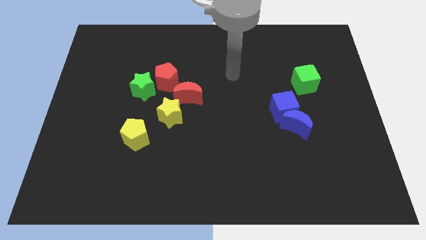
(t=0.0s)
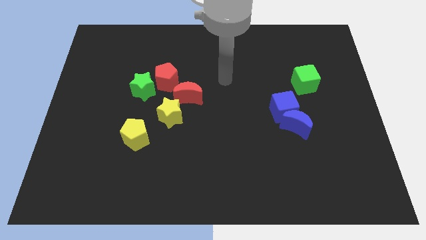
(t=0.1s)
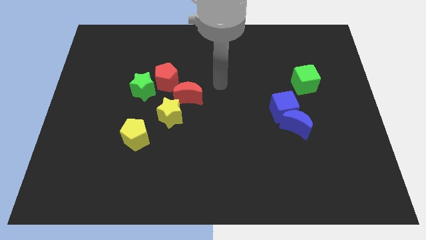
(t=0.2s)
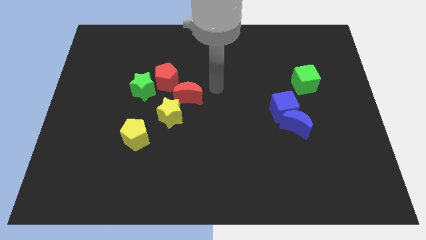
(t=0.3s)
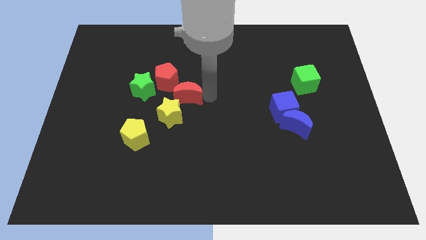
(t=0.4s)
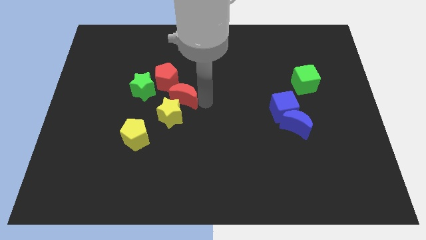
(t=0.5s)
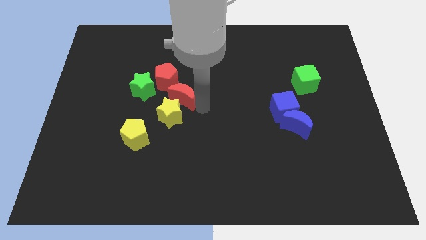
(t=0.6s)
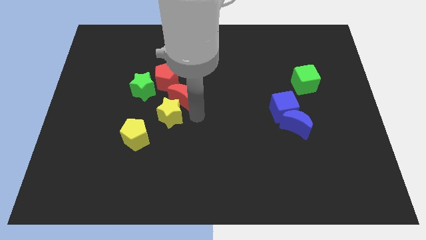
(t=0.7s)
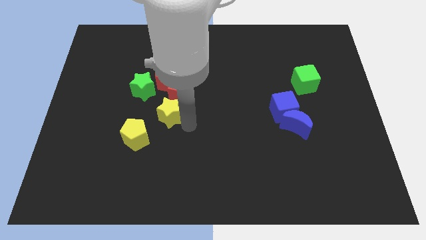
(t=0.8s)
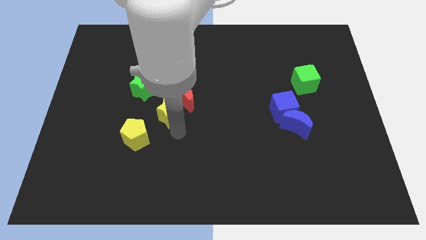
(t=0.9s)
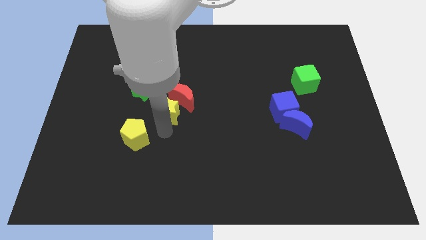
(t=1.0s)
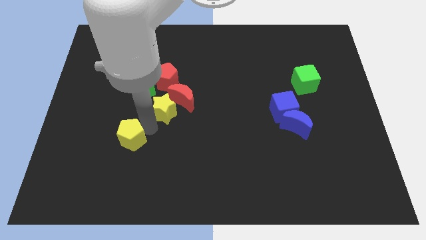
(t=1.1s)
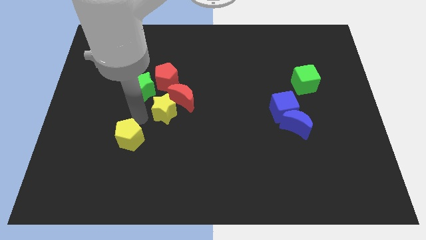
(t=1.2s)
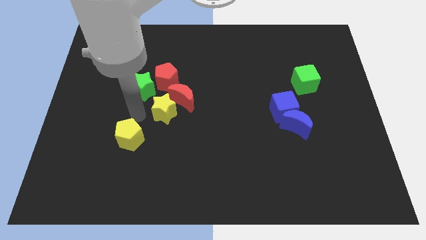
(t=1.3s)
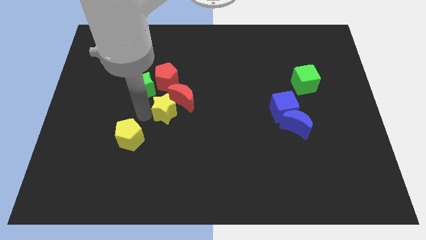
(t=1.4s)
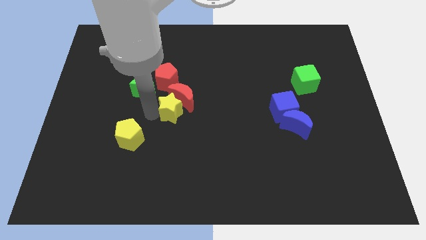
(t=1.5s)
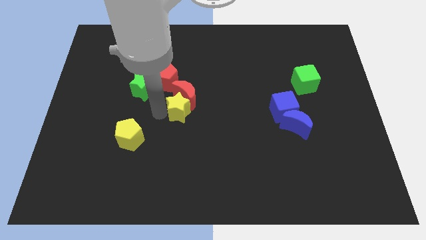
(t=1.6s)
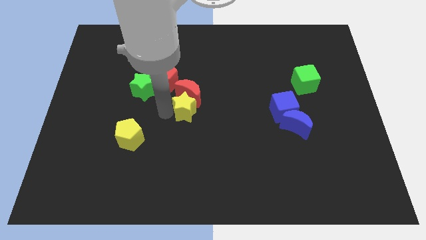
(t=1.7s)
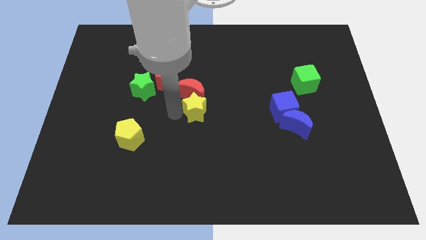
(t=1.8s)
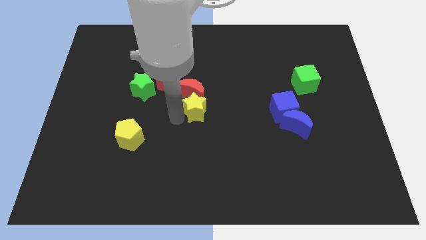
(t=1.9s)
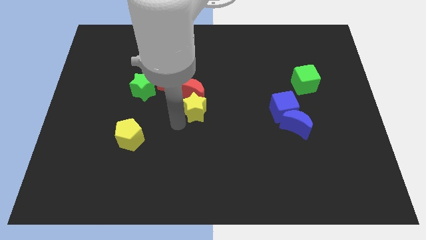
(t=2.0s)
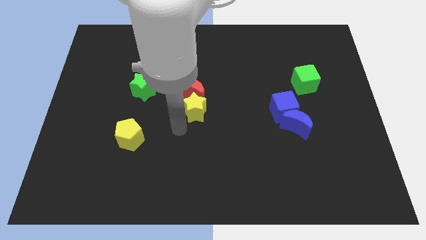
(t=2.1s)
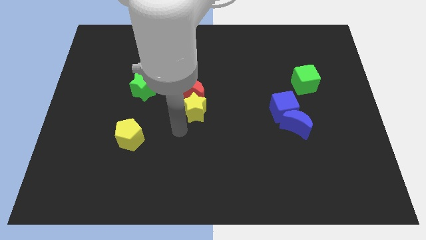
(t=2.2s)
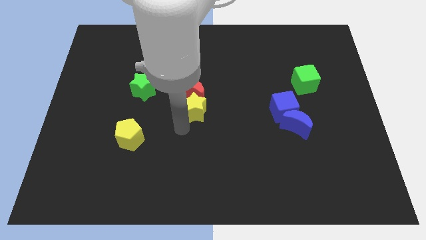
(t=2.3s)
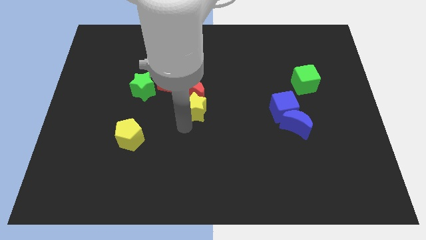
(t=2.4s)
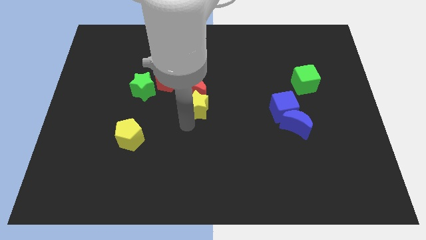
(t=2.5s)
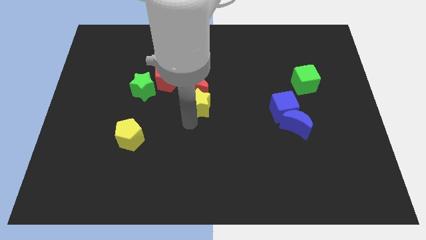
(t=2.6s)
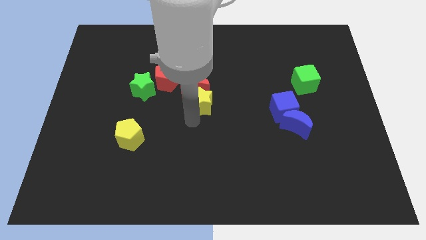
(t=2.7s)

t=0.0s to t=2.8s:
push the yellow star upwards and then right a bit

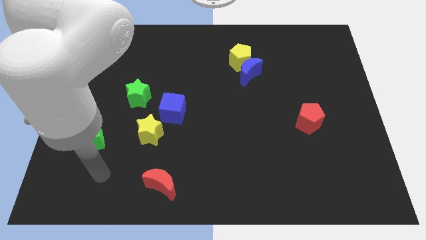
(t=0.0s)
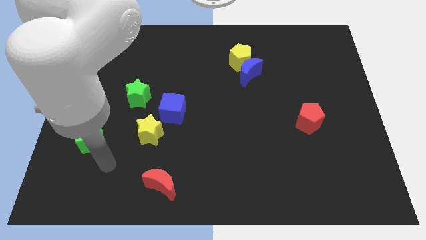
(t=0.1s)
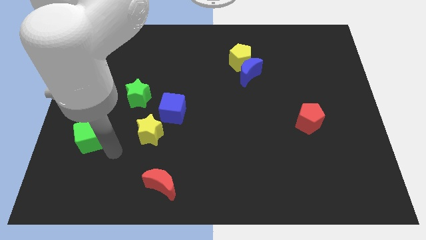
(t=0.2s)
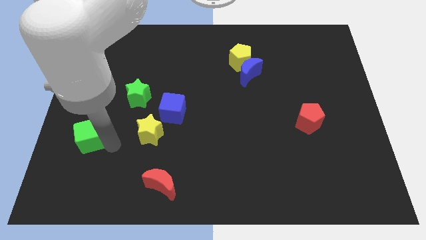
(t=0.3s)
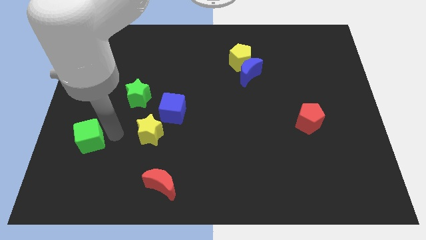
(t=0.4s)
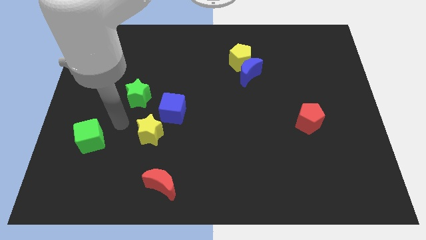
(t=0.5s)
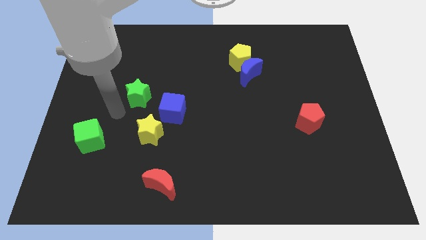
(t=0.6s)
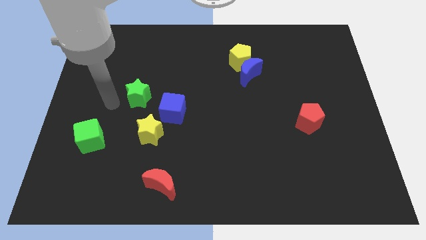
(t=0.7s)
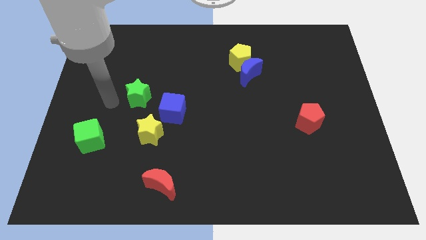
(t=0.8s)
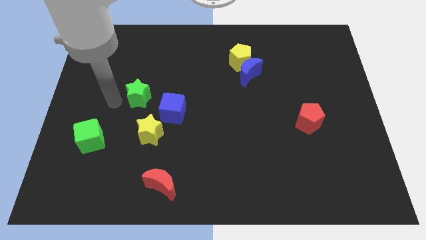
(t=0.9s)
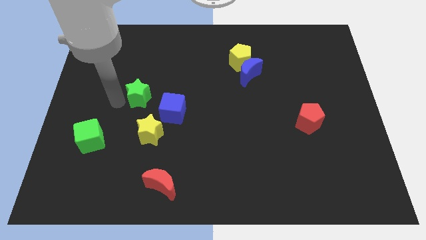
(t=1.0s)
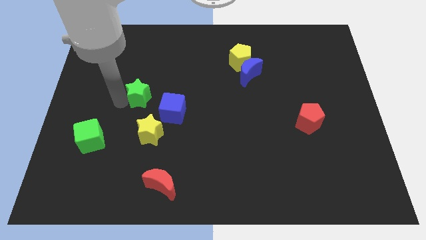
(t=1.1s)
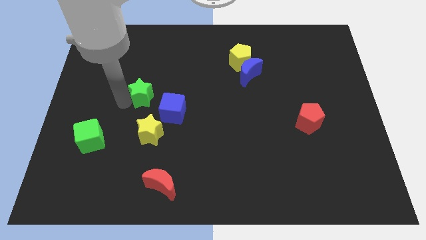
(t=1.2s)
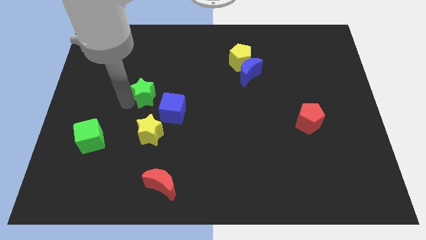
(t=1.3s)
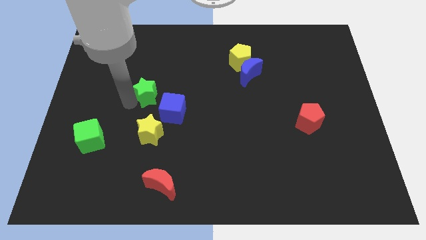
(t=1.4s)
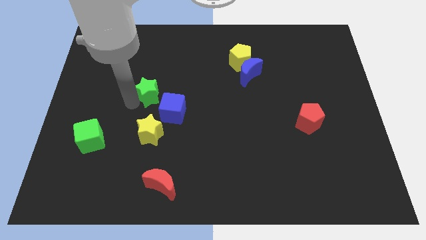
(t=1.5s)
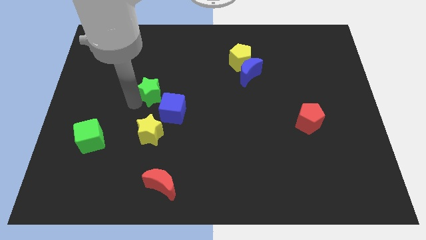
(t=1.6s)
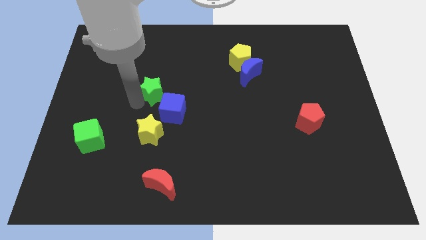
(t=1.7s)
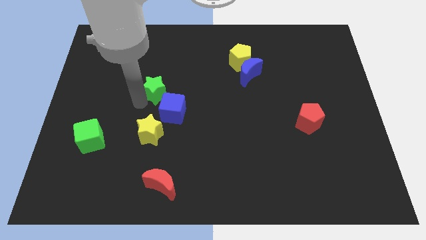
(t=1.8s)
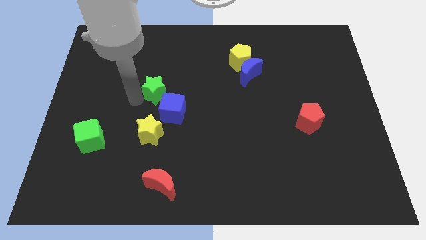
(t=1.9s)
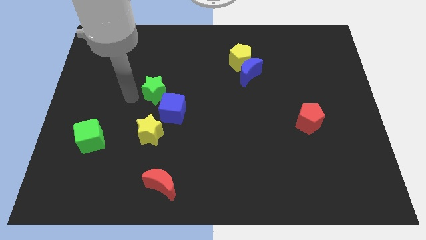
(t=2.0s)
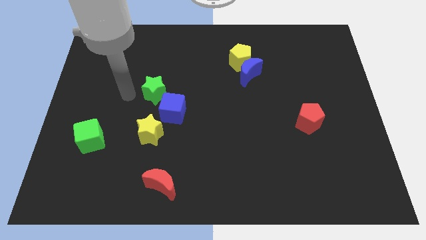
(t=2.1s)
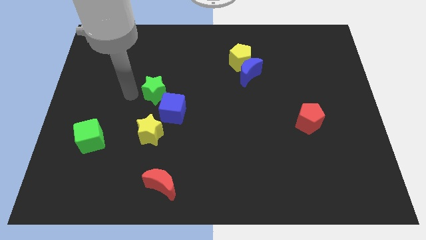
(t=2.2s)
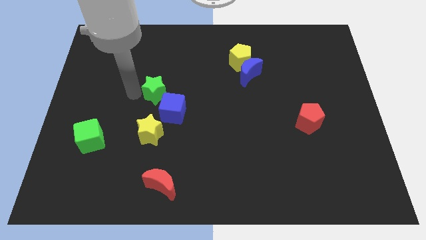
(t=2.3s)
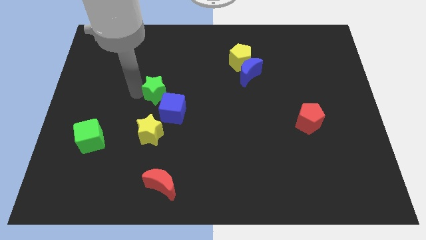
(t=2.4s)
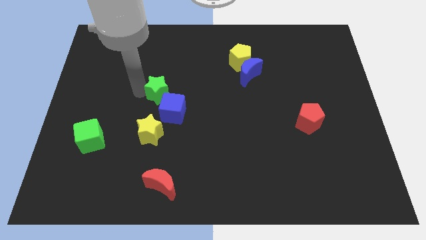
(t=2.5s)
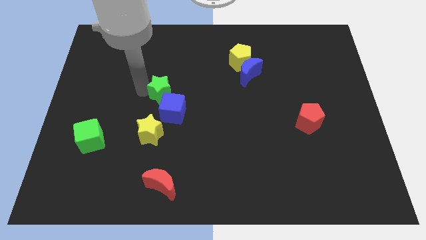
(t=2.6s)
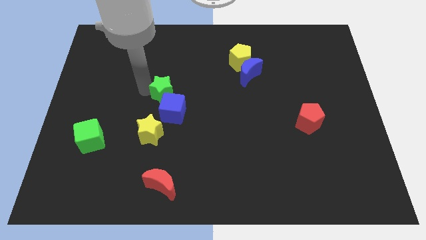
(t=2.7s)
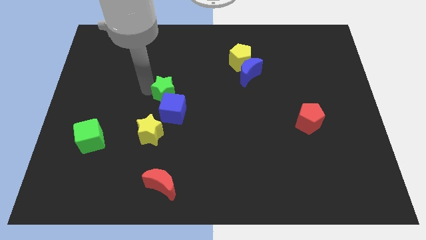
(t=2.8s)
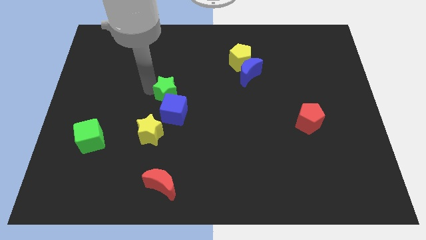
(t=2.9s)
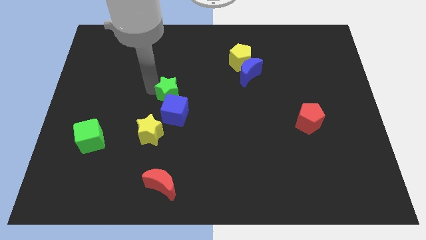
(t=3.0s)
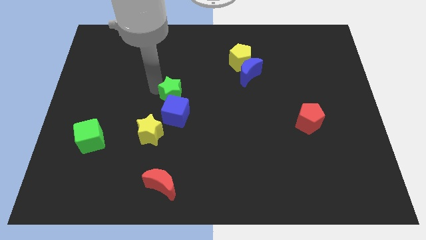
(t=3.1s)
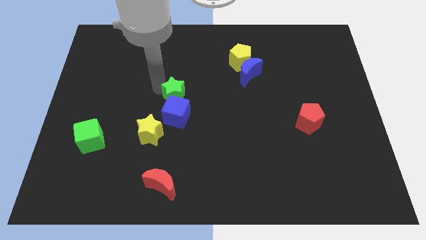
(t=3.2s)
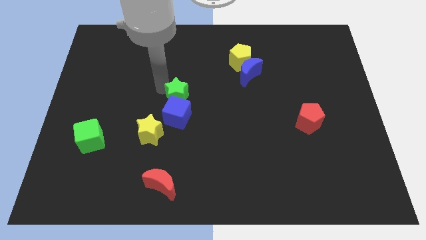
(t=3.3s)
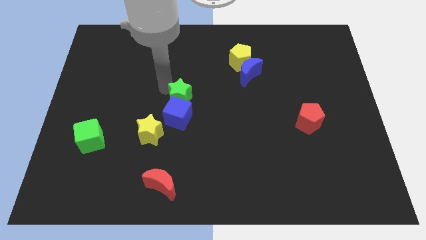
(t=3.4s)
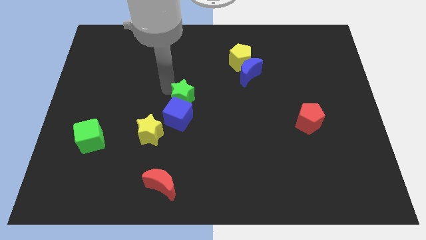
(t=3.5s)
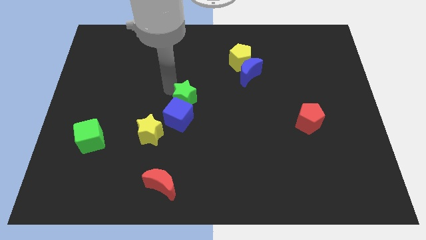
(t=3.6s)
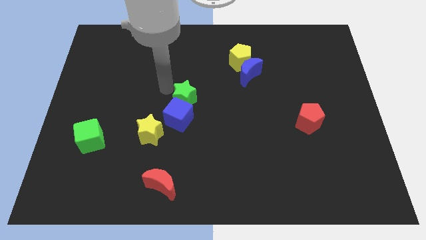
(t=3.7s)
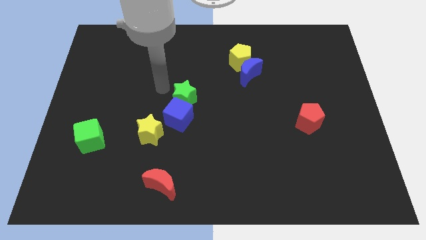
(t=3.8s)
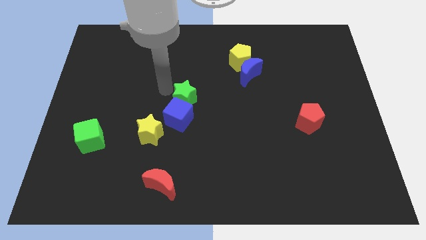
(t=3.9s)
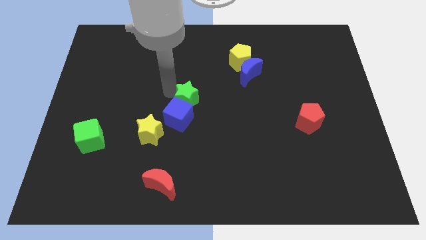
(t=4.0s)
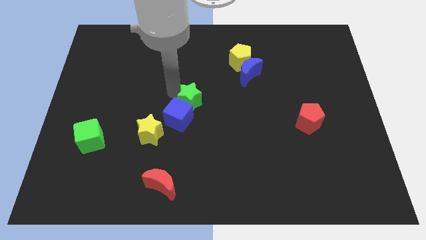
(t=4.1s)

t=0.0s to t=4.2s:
move the green star somewhat diagonally downwards and to the right

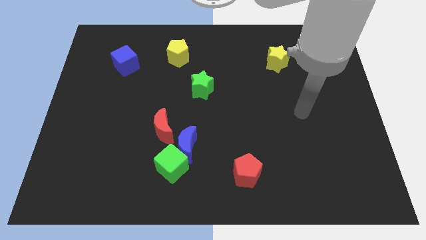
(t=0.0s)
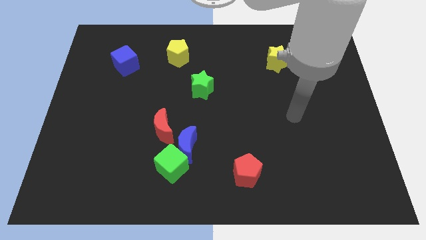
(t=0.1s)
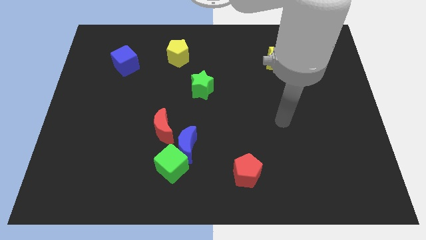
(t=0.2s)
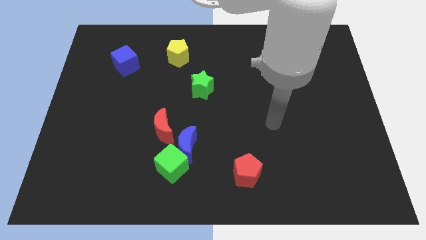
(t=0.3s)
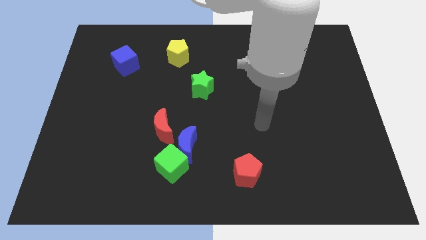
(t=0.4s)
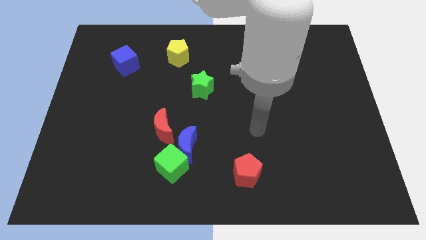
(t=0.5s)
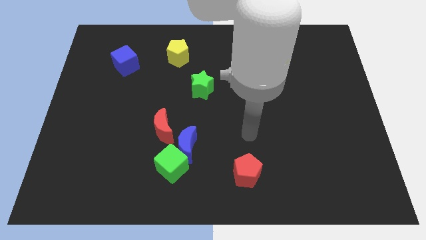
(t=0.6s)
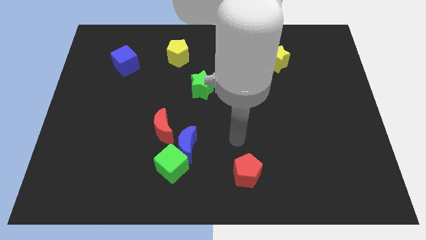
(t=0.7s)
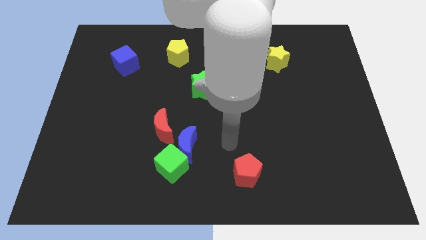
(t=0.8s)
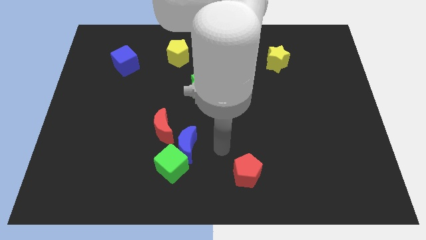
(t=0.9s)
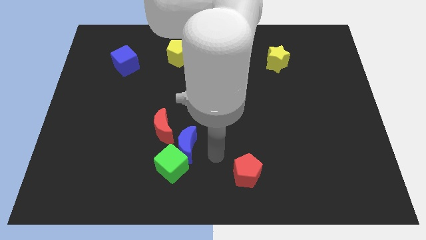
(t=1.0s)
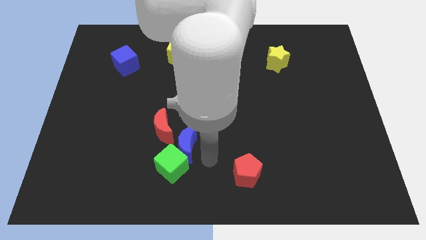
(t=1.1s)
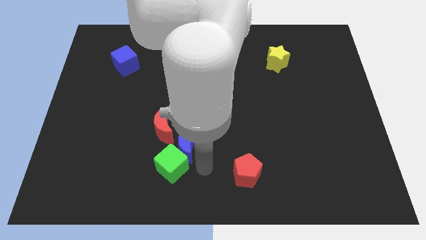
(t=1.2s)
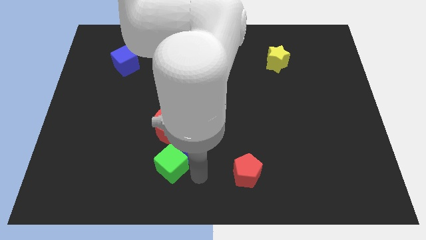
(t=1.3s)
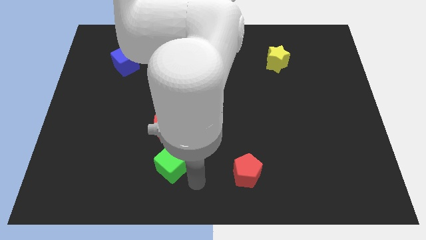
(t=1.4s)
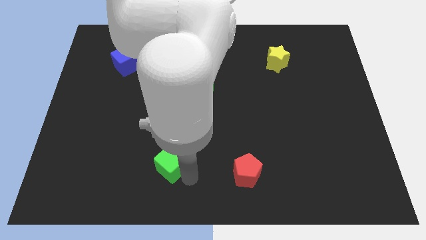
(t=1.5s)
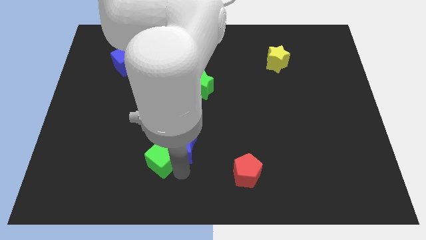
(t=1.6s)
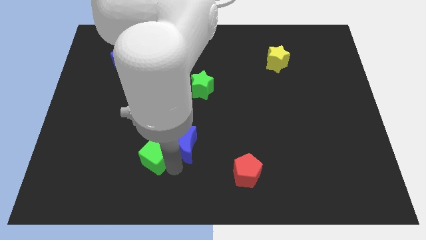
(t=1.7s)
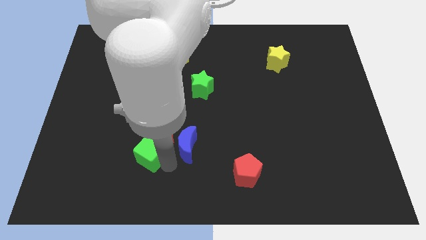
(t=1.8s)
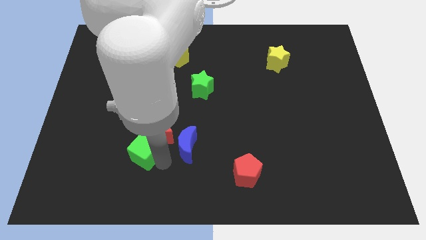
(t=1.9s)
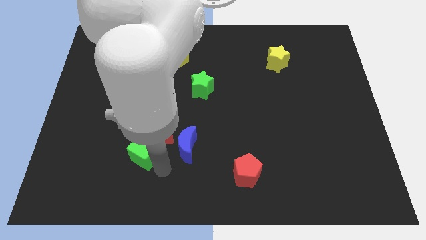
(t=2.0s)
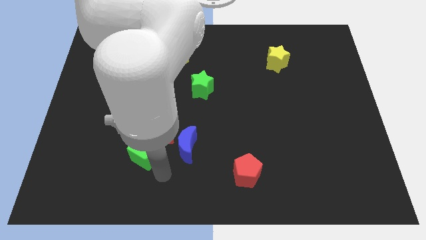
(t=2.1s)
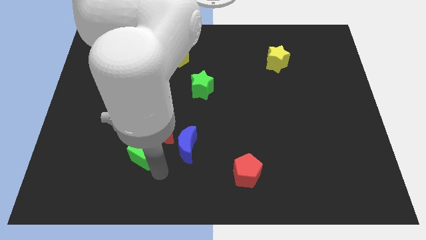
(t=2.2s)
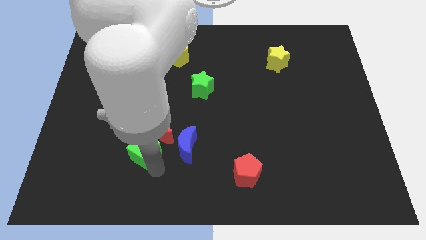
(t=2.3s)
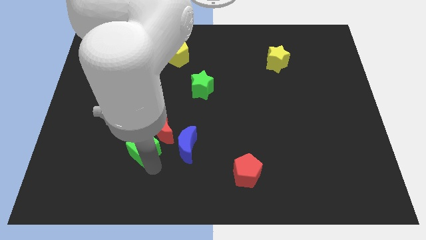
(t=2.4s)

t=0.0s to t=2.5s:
push the green cube upwards and left diagonally a little bit
